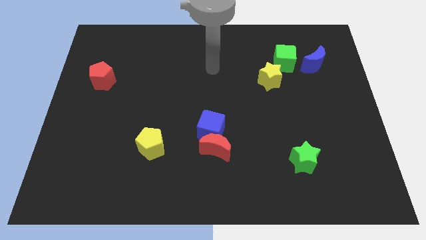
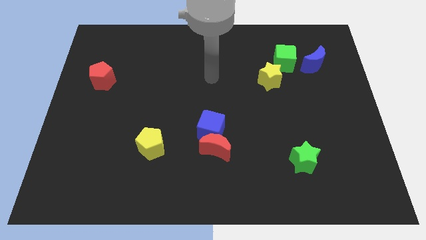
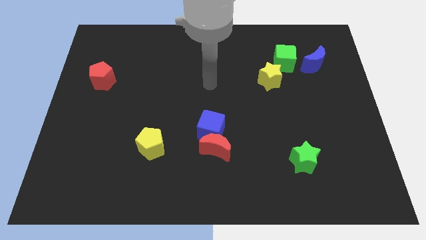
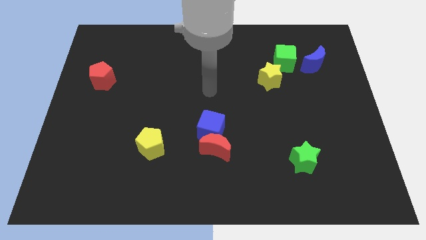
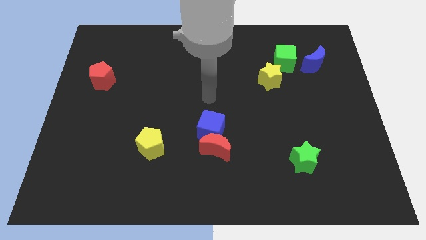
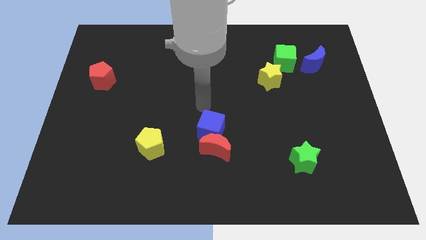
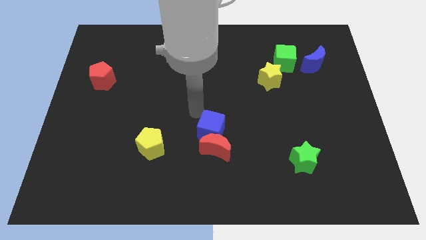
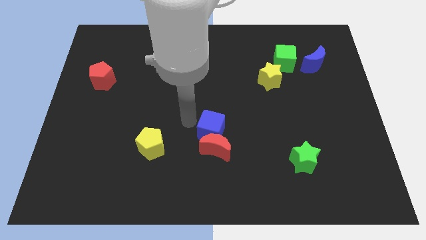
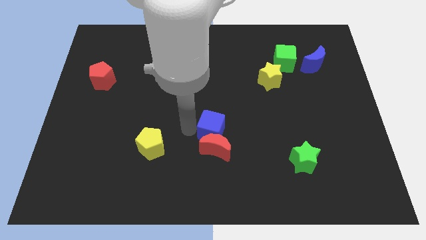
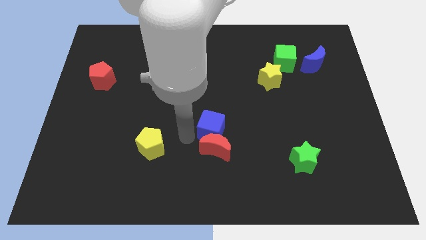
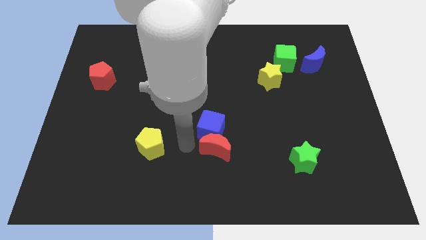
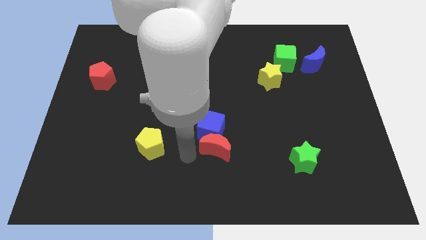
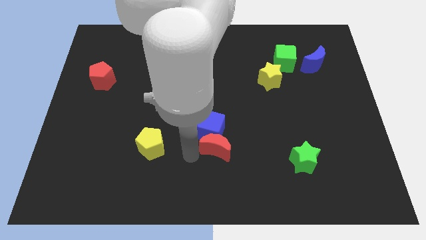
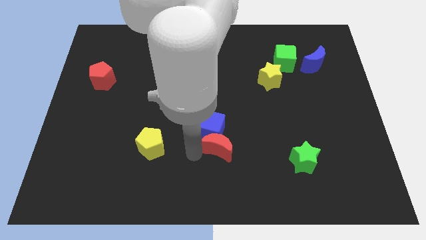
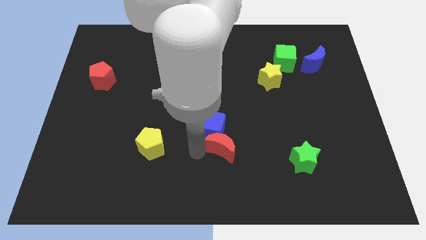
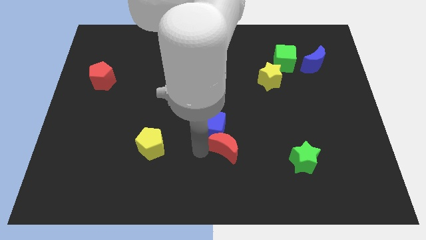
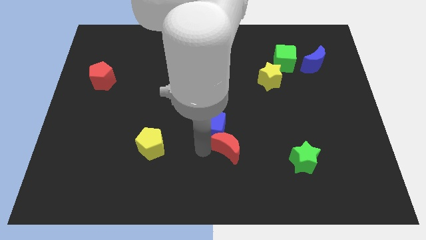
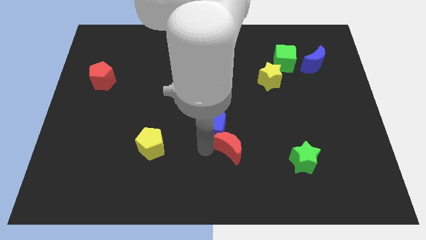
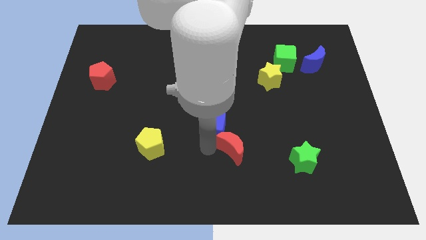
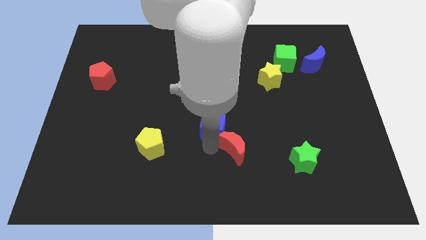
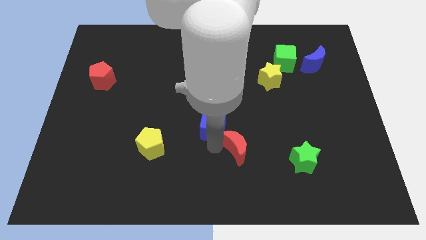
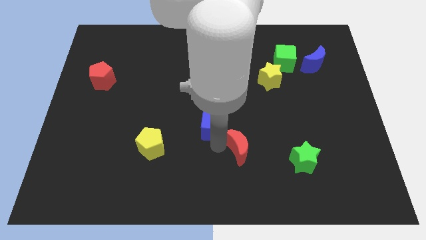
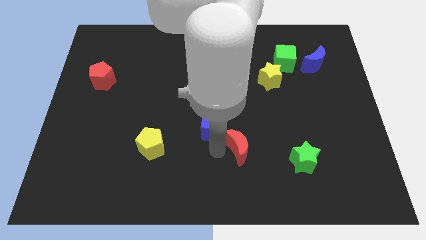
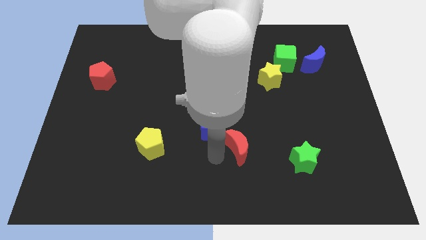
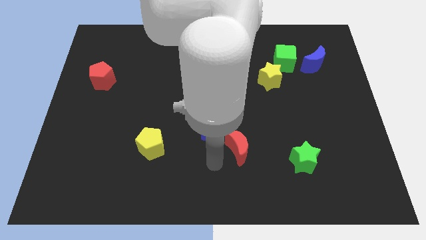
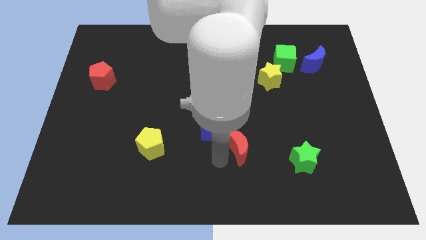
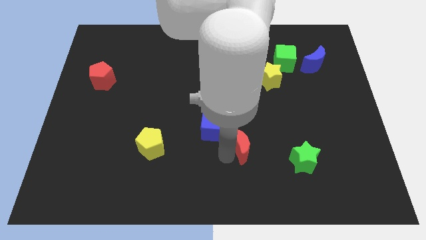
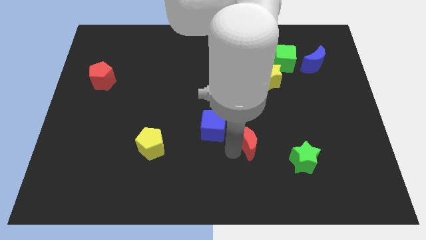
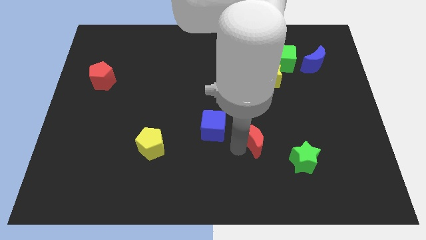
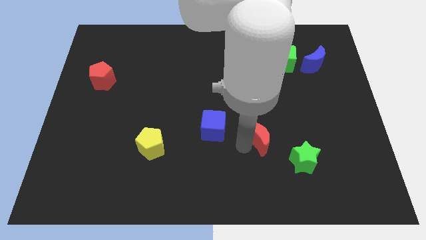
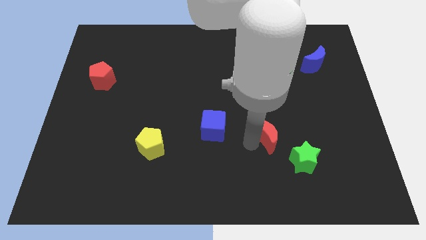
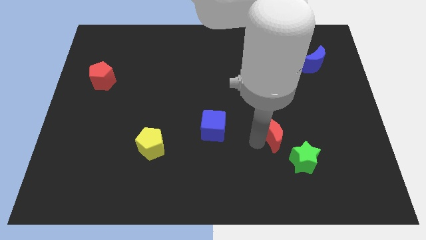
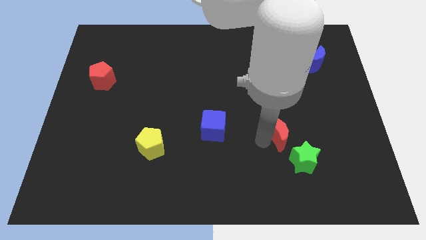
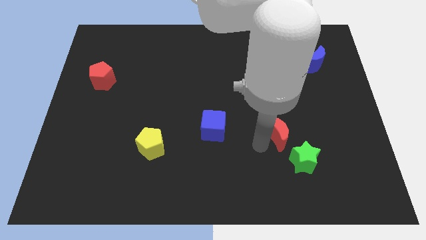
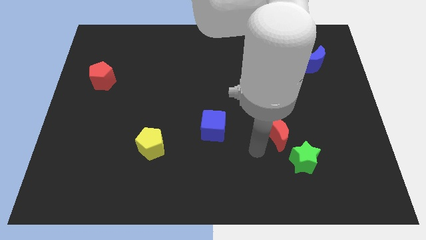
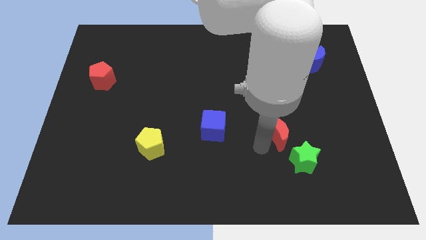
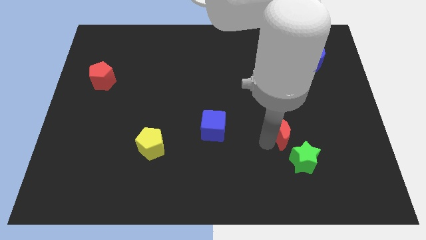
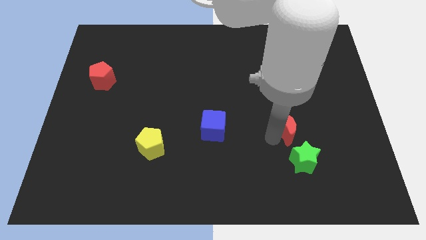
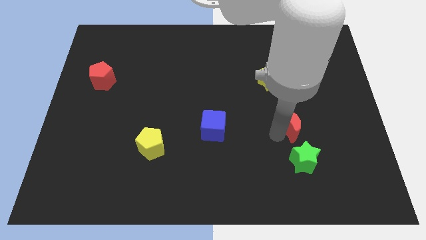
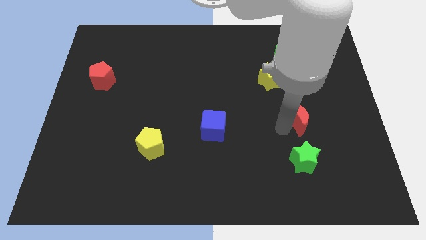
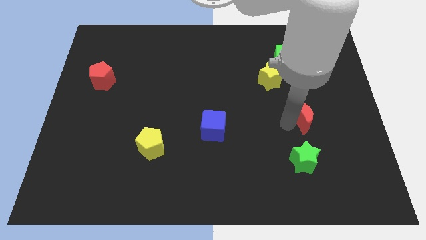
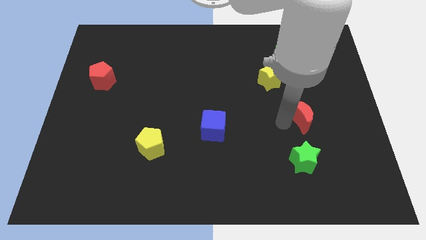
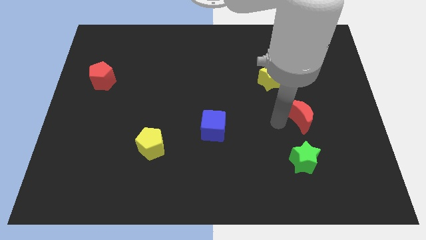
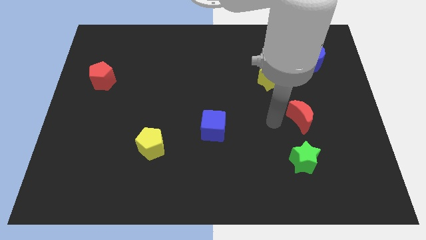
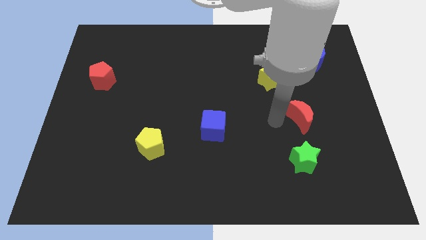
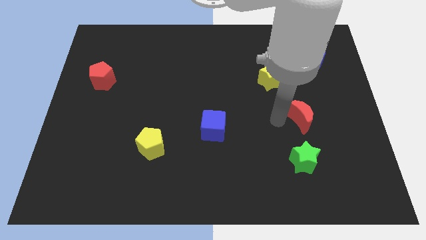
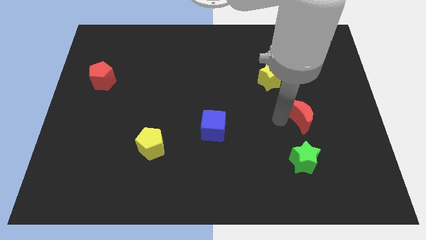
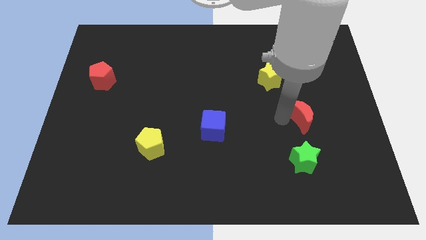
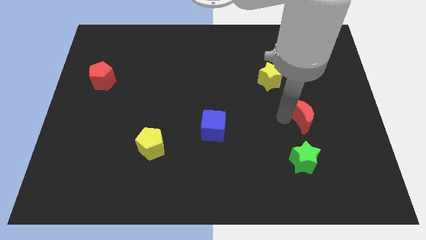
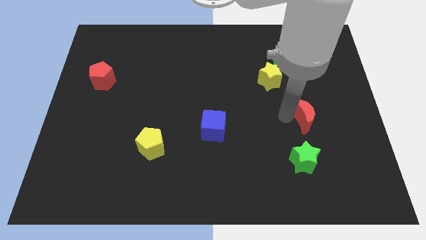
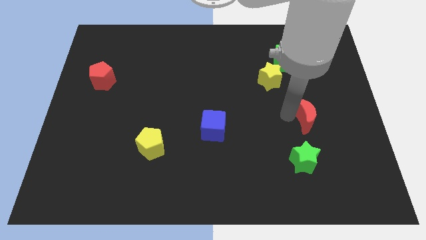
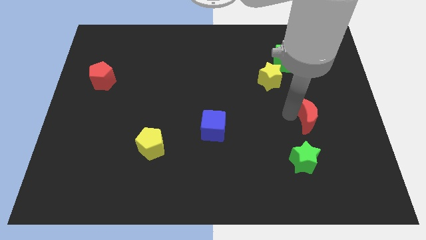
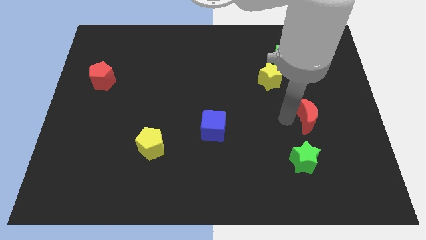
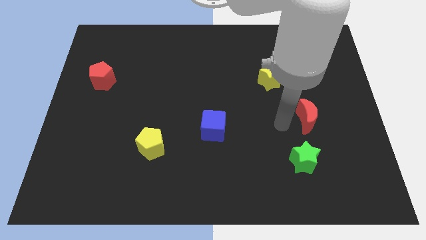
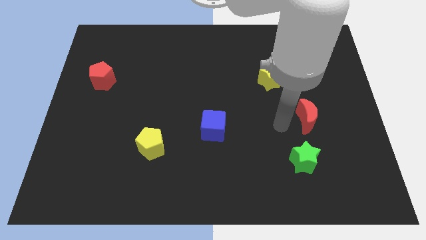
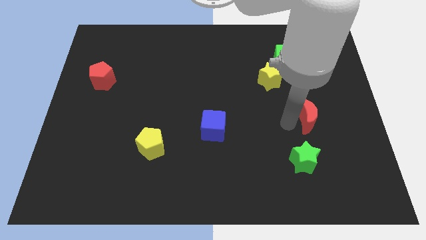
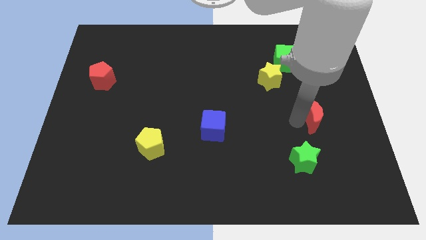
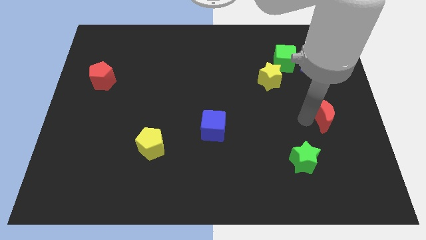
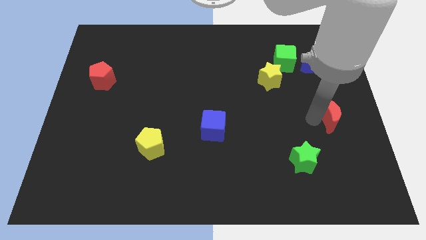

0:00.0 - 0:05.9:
slide the red moon to the right side

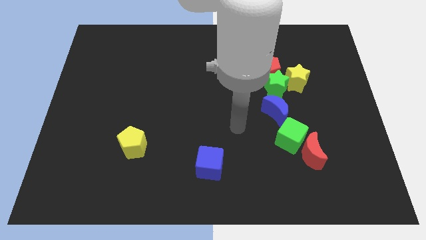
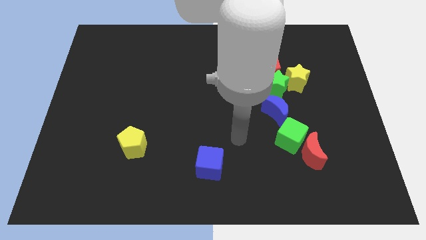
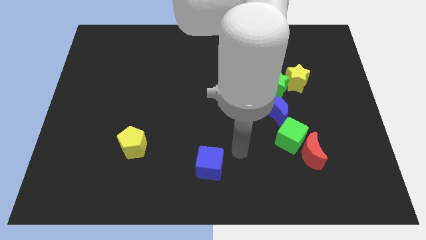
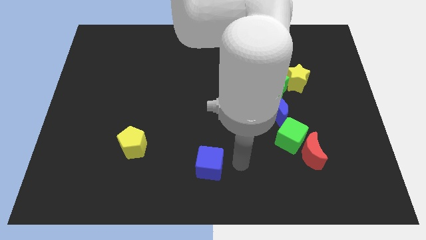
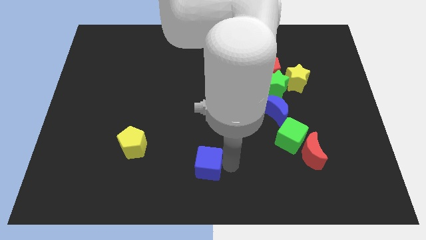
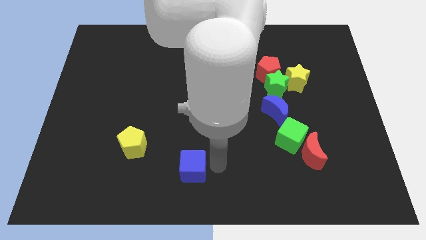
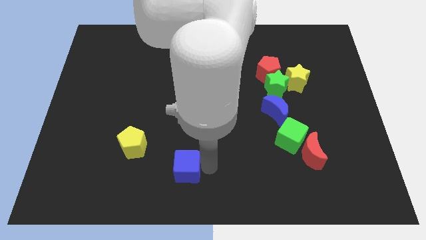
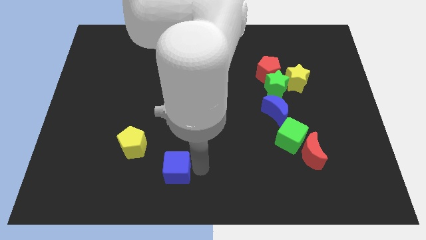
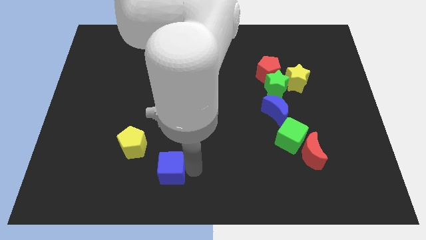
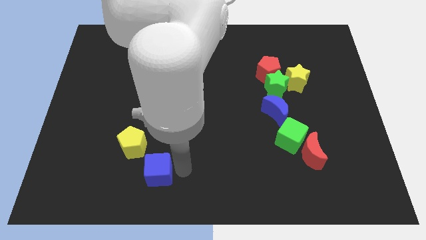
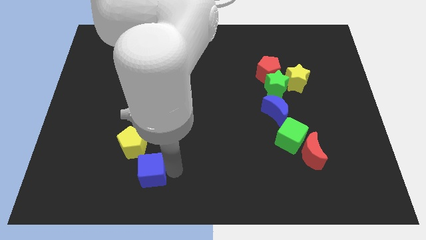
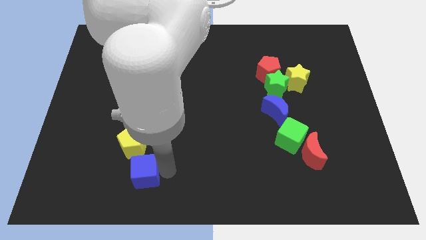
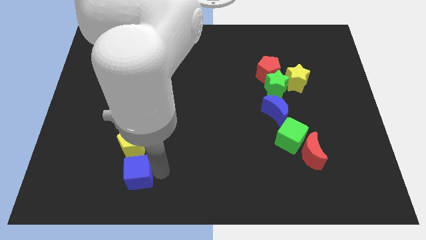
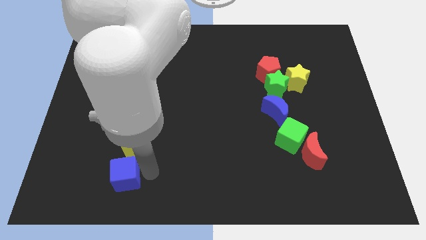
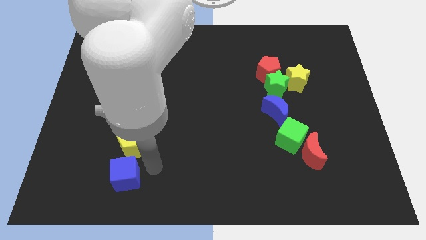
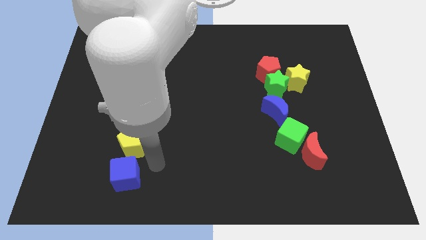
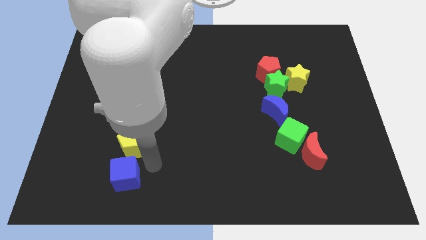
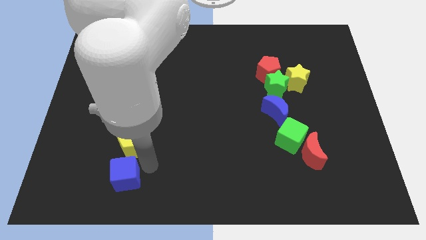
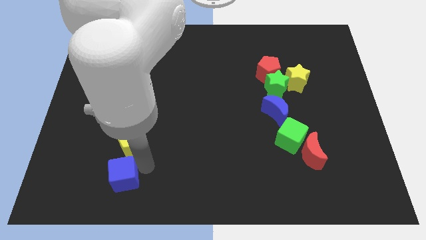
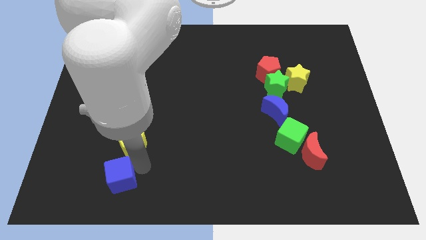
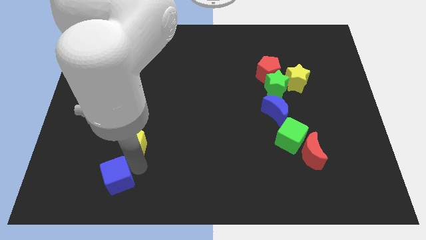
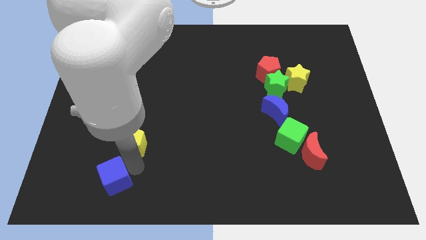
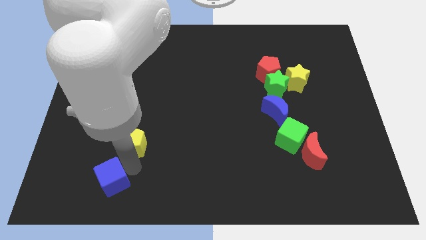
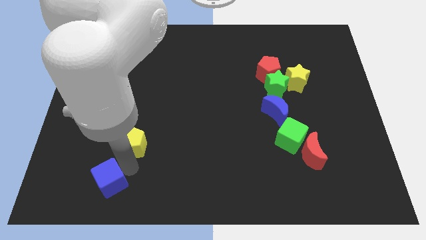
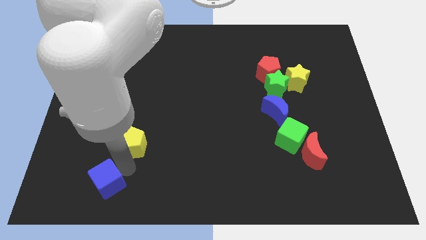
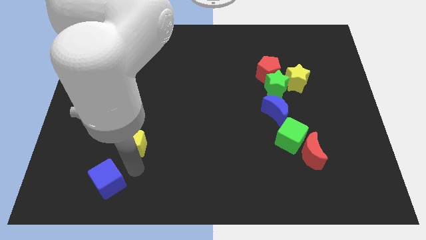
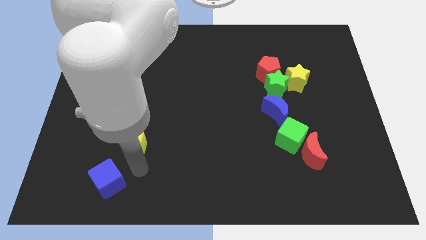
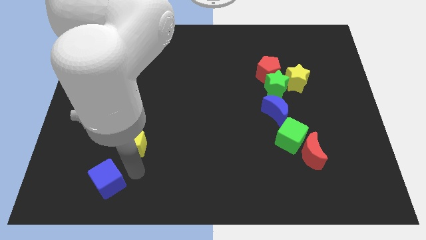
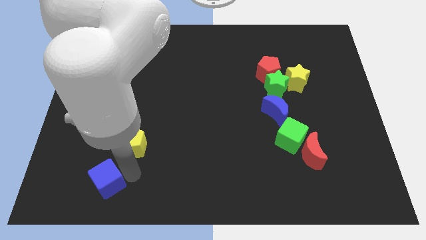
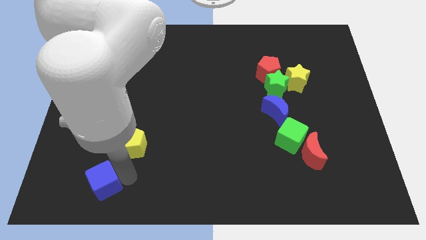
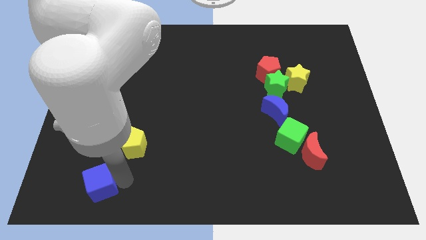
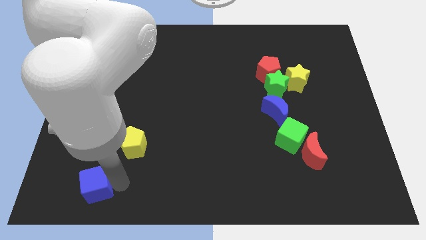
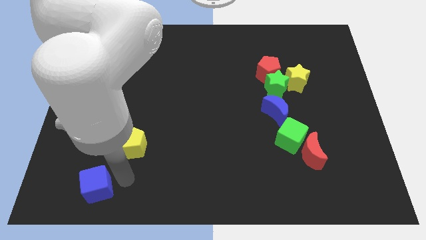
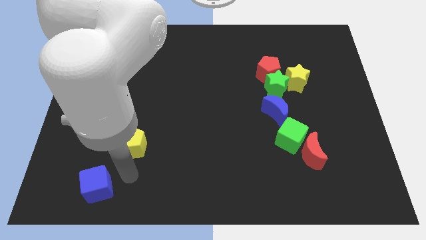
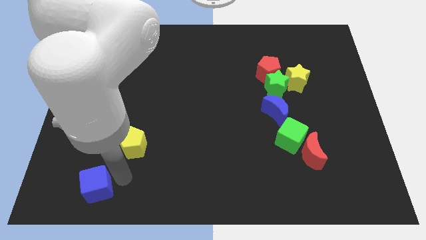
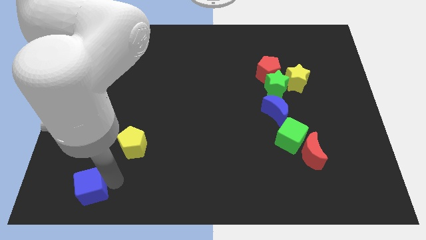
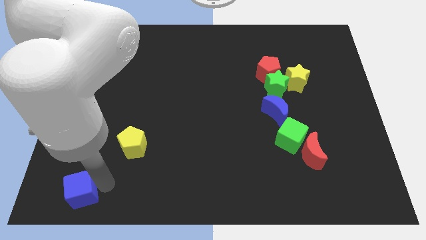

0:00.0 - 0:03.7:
move the blue cube to the bottom left
